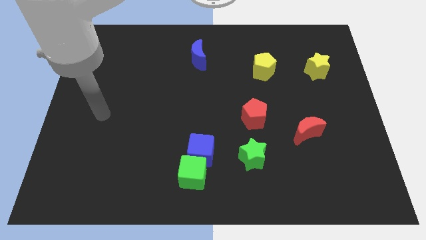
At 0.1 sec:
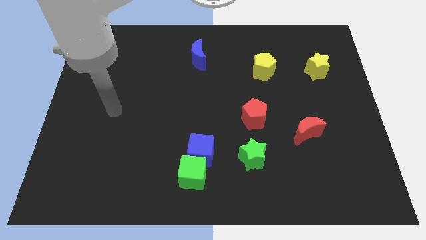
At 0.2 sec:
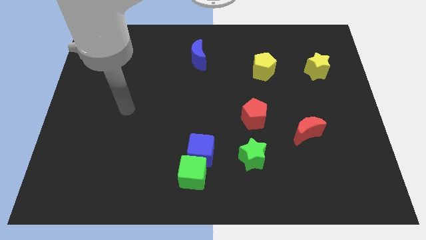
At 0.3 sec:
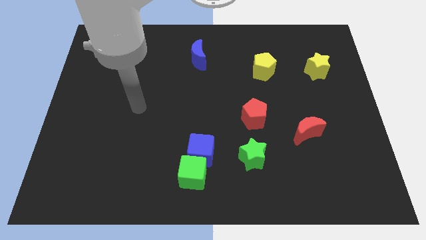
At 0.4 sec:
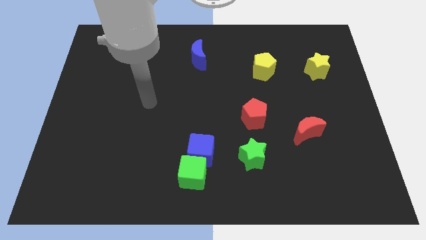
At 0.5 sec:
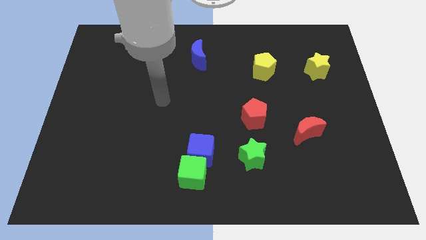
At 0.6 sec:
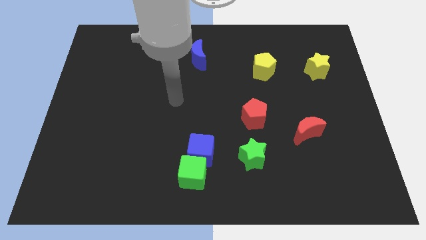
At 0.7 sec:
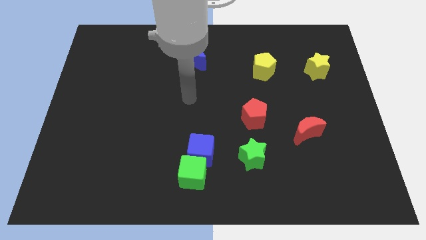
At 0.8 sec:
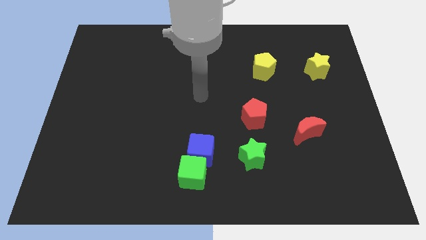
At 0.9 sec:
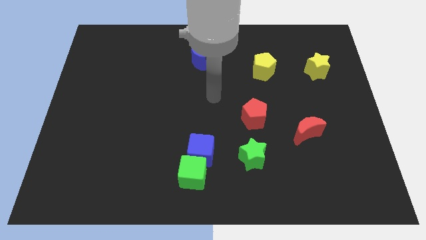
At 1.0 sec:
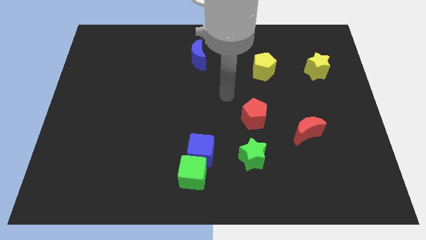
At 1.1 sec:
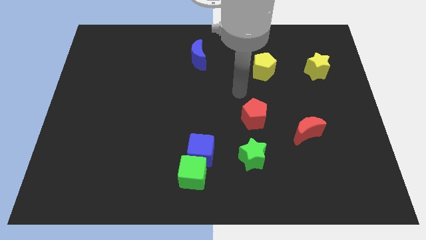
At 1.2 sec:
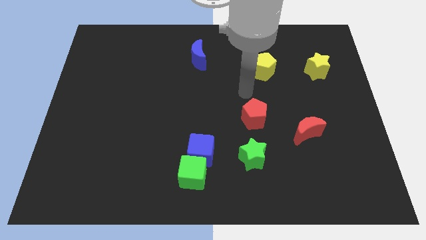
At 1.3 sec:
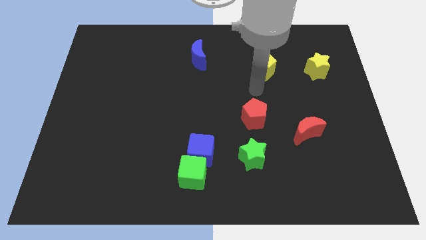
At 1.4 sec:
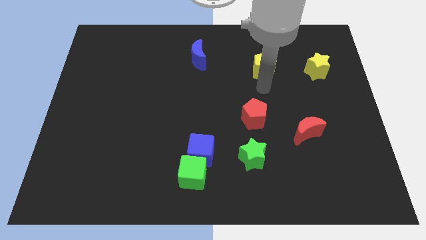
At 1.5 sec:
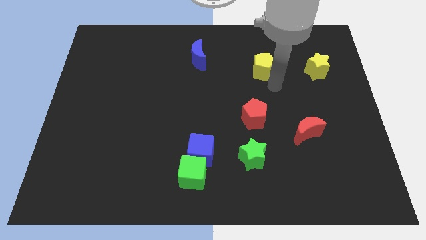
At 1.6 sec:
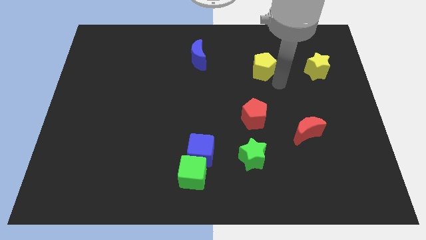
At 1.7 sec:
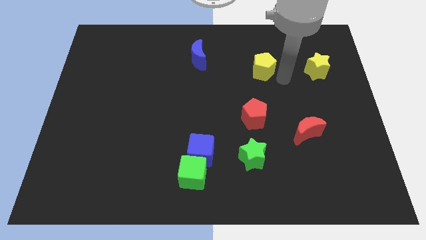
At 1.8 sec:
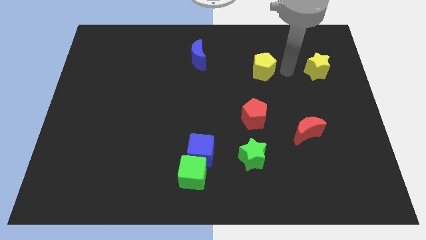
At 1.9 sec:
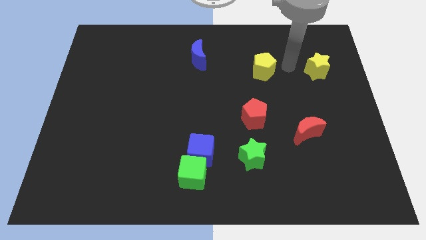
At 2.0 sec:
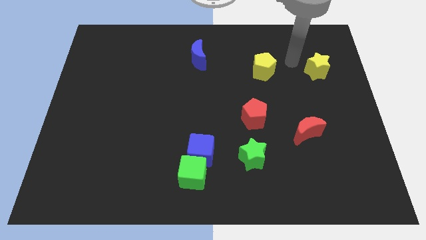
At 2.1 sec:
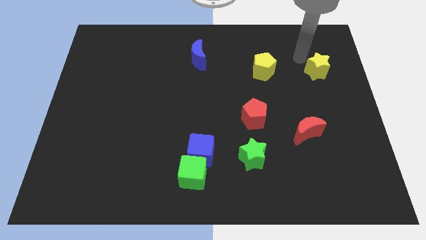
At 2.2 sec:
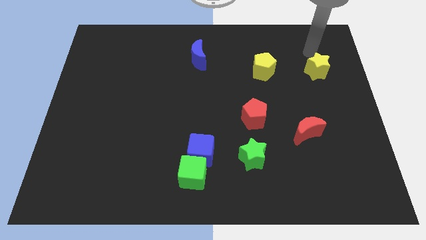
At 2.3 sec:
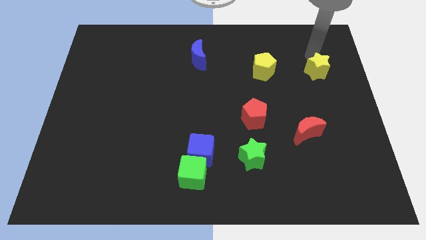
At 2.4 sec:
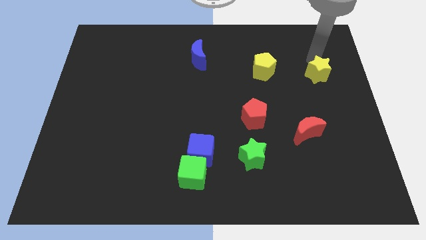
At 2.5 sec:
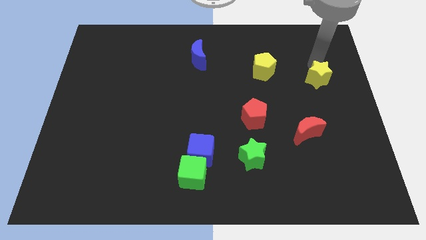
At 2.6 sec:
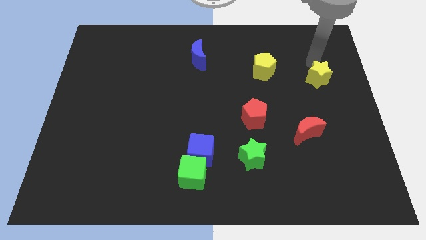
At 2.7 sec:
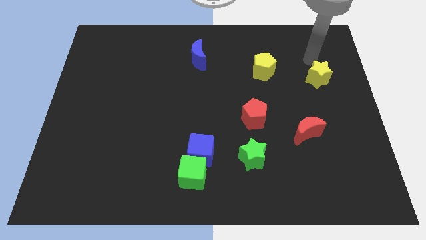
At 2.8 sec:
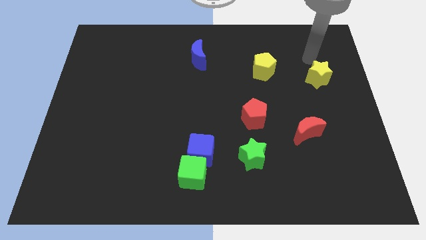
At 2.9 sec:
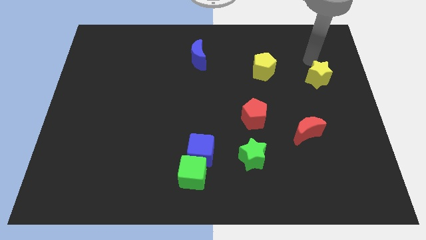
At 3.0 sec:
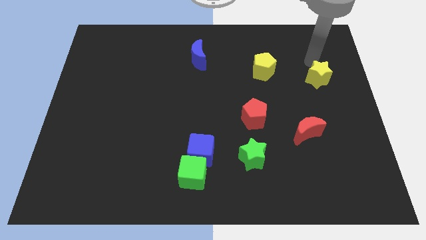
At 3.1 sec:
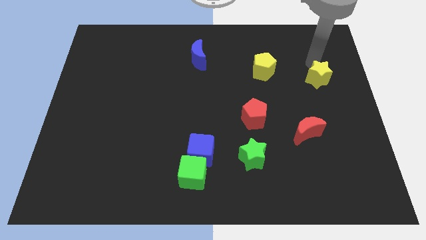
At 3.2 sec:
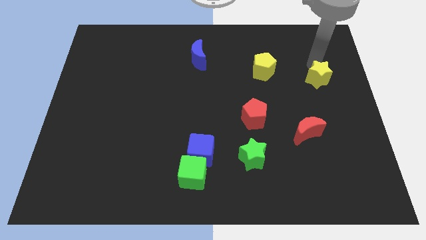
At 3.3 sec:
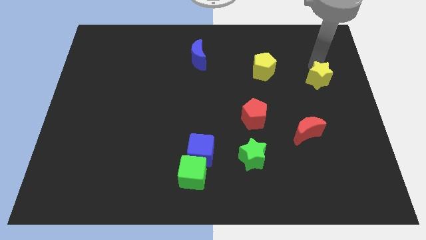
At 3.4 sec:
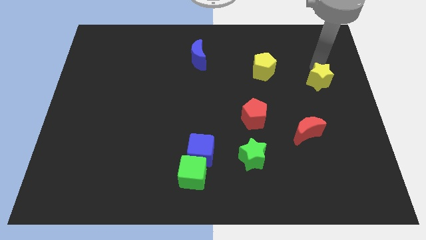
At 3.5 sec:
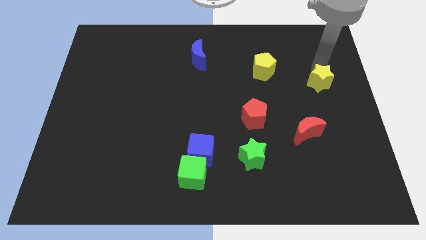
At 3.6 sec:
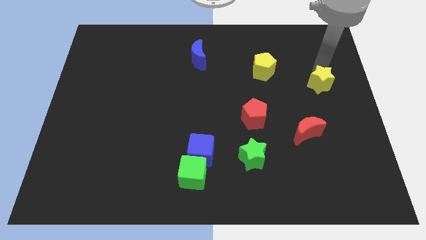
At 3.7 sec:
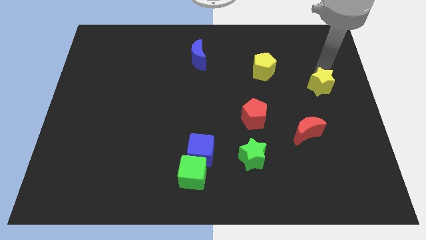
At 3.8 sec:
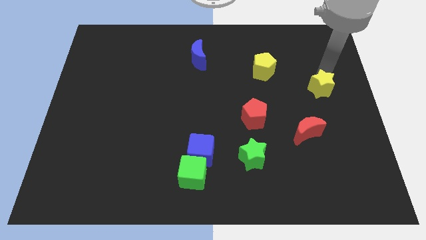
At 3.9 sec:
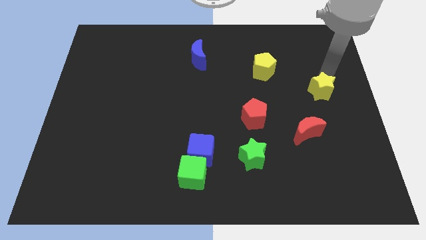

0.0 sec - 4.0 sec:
move the yellow star downwards a little

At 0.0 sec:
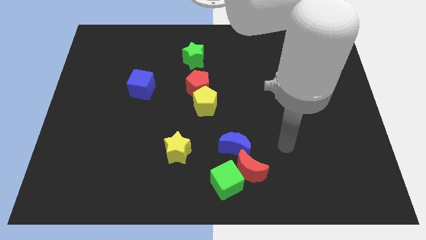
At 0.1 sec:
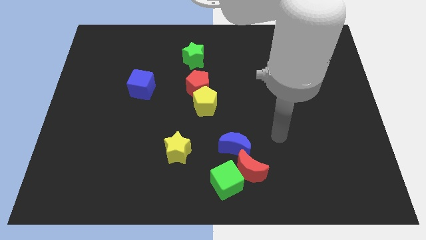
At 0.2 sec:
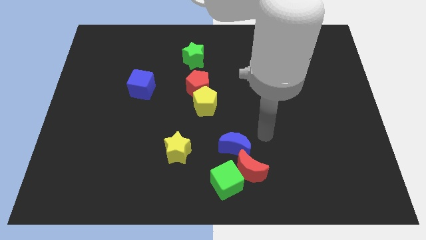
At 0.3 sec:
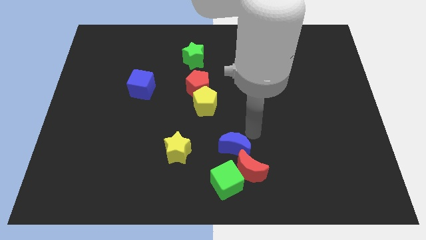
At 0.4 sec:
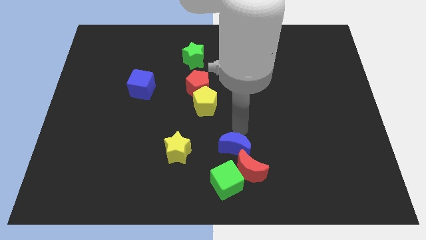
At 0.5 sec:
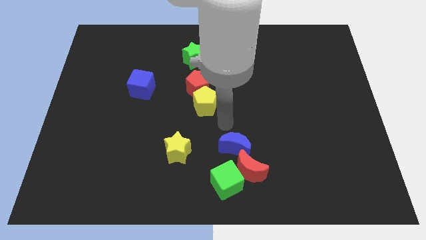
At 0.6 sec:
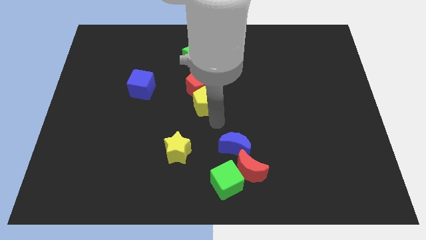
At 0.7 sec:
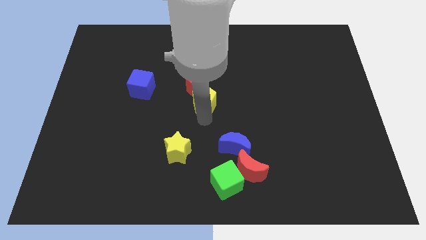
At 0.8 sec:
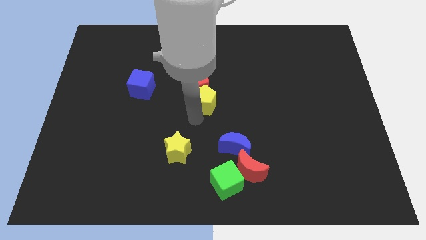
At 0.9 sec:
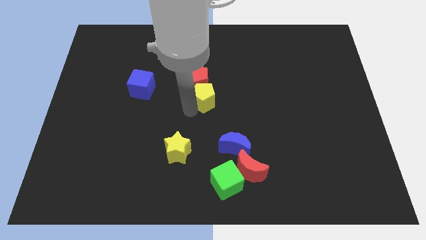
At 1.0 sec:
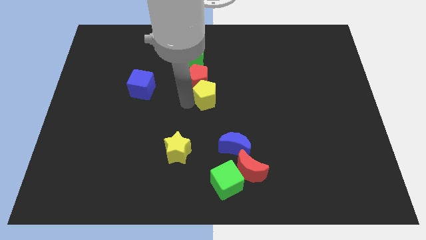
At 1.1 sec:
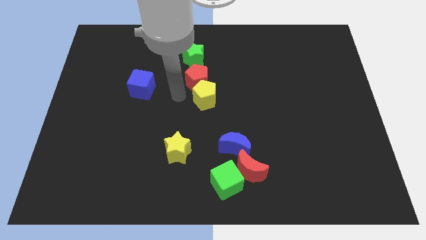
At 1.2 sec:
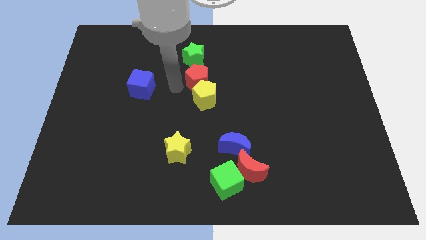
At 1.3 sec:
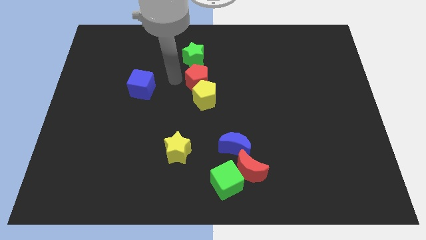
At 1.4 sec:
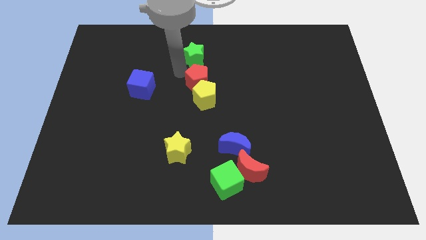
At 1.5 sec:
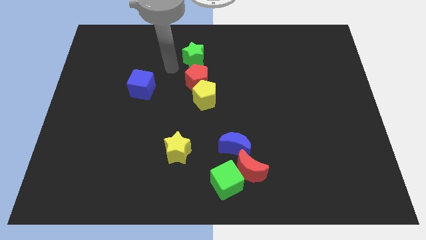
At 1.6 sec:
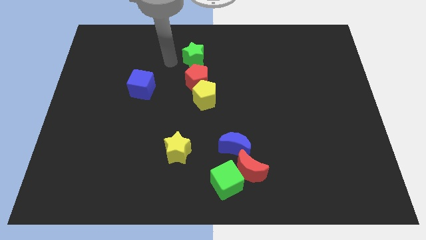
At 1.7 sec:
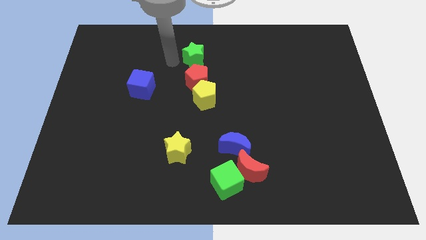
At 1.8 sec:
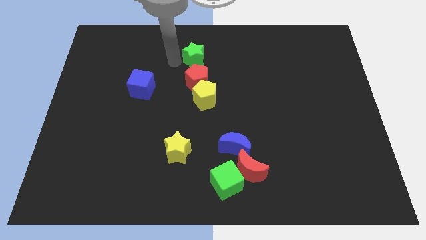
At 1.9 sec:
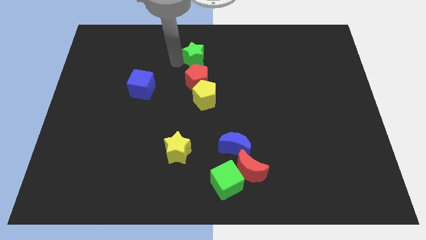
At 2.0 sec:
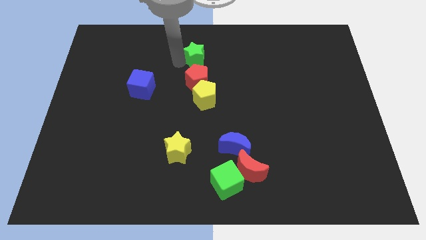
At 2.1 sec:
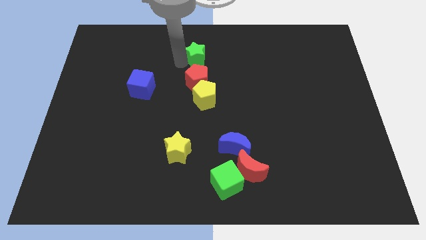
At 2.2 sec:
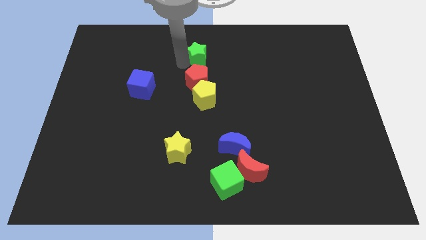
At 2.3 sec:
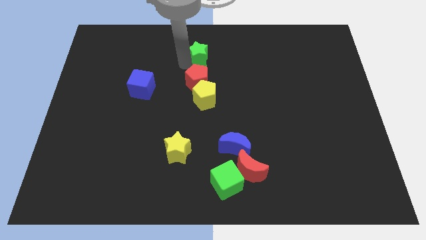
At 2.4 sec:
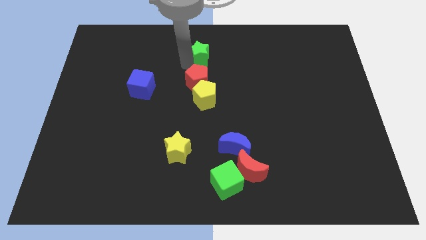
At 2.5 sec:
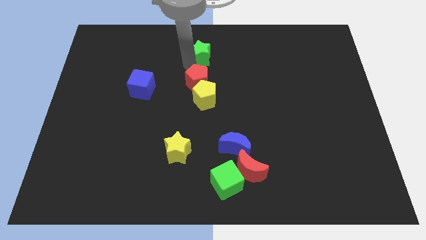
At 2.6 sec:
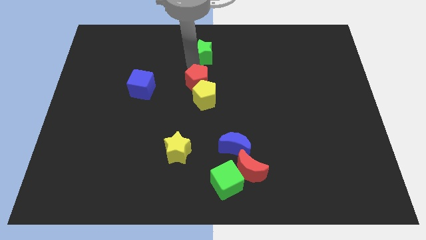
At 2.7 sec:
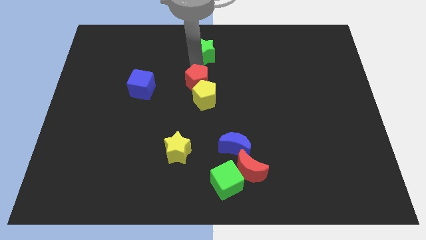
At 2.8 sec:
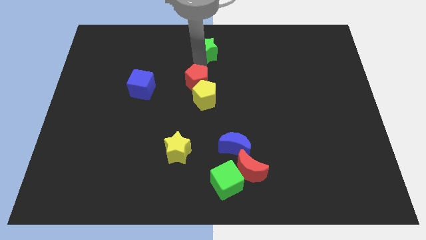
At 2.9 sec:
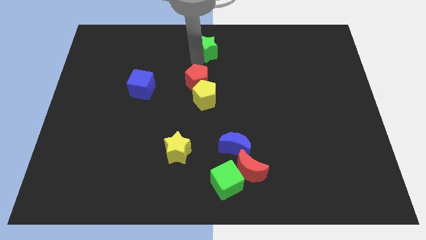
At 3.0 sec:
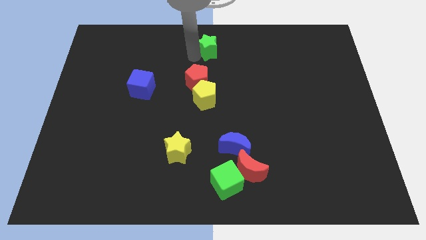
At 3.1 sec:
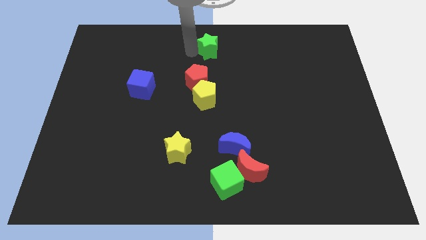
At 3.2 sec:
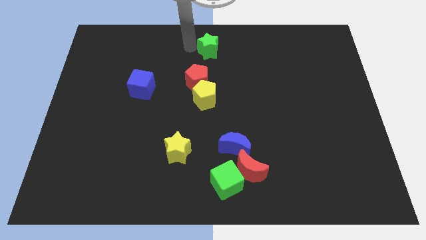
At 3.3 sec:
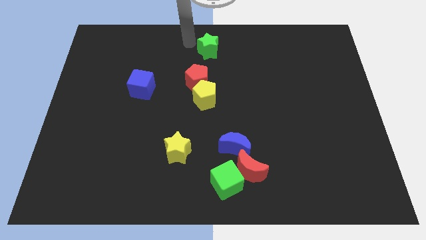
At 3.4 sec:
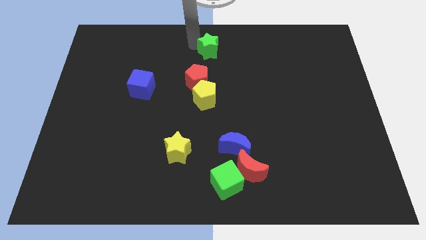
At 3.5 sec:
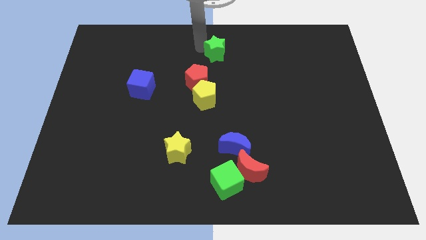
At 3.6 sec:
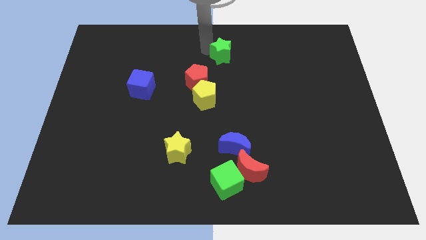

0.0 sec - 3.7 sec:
move the green star to the right somewhat

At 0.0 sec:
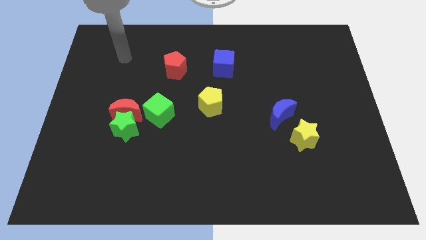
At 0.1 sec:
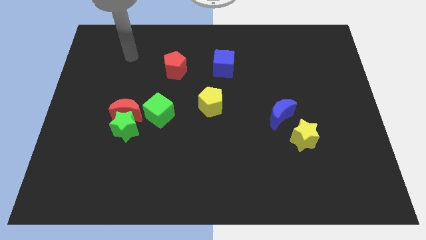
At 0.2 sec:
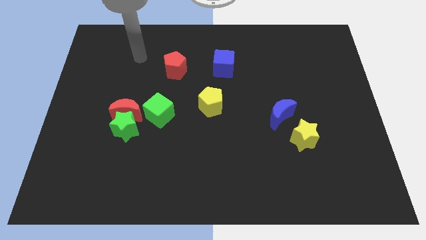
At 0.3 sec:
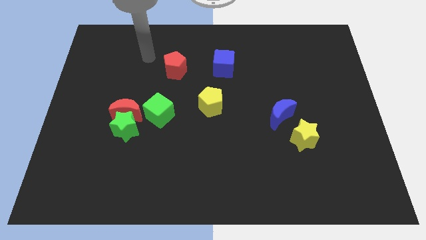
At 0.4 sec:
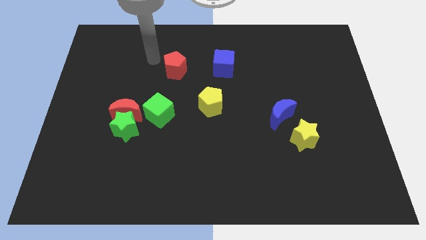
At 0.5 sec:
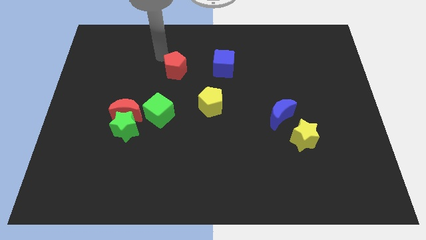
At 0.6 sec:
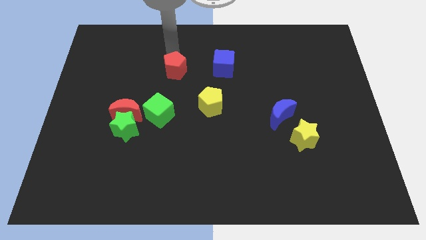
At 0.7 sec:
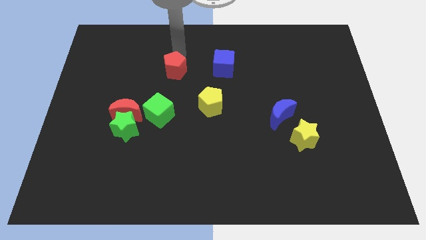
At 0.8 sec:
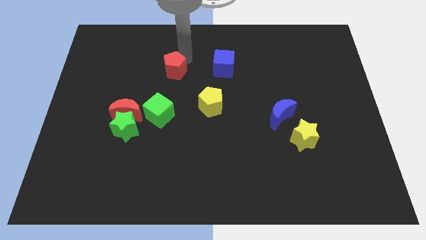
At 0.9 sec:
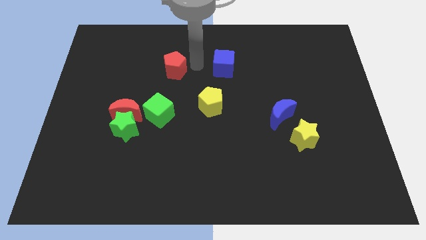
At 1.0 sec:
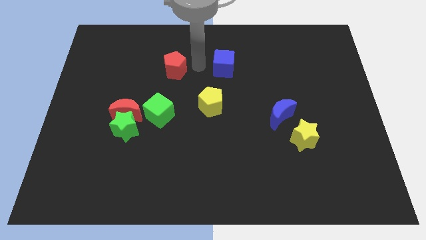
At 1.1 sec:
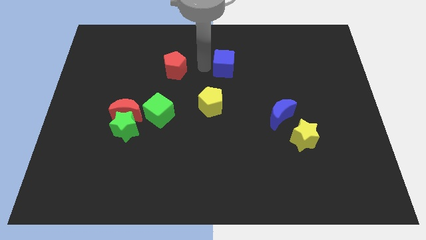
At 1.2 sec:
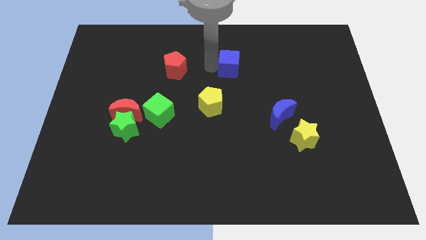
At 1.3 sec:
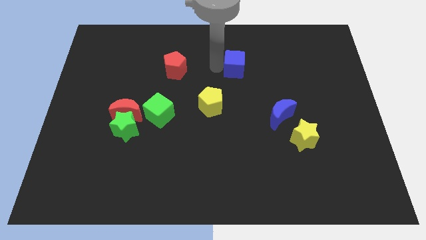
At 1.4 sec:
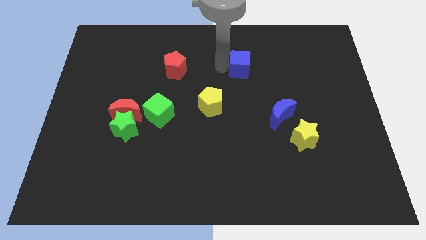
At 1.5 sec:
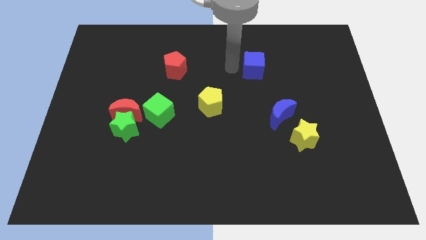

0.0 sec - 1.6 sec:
slightly push the blue cube to the right
